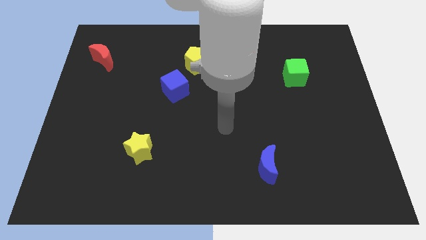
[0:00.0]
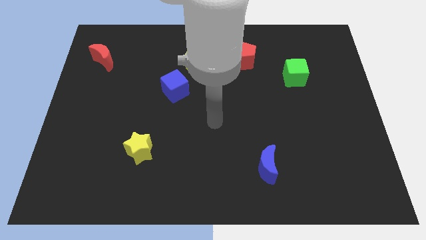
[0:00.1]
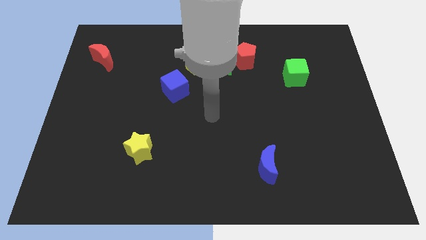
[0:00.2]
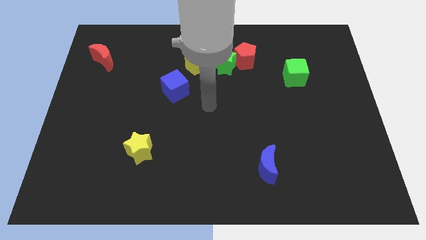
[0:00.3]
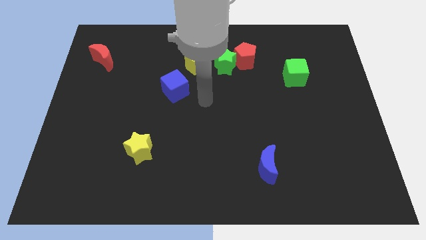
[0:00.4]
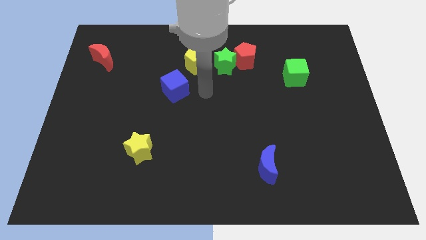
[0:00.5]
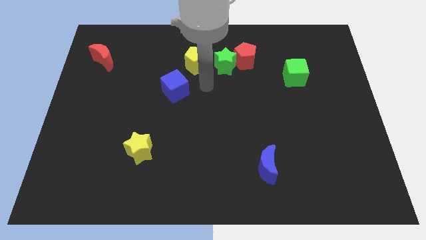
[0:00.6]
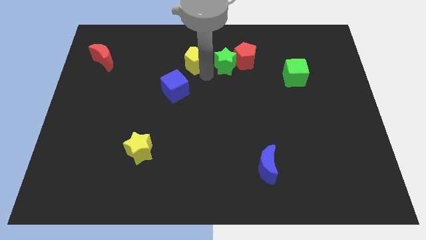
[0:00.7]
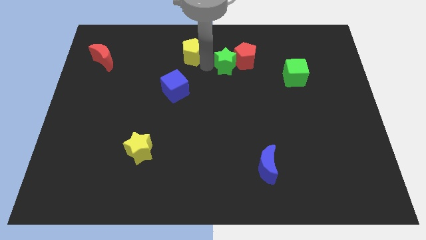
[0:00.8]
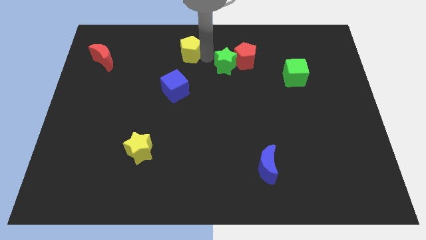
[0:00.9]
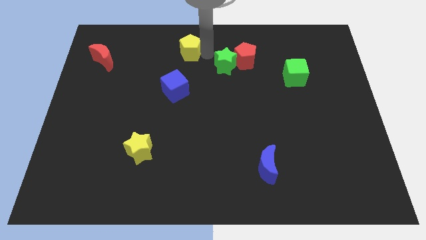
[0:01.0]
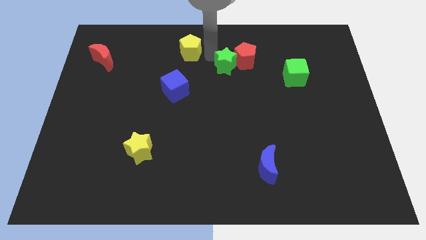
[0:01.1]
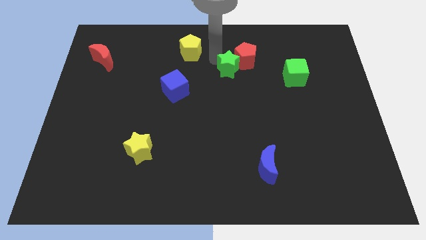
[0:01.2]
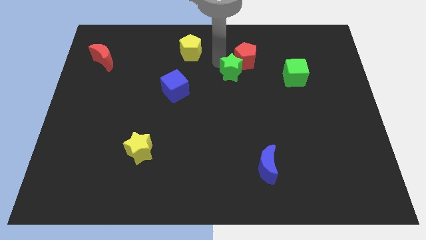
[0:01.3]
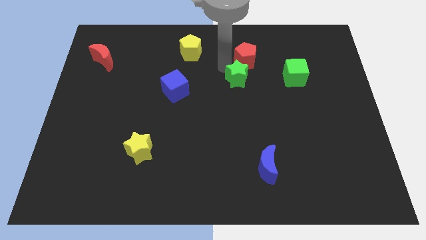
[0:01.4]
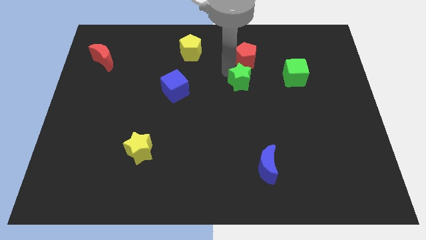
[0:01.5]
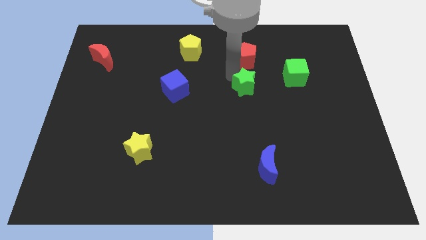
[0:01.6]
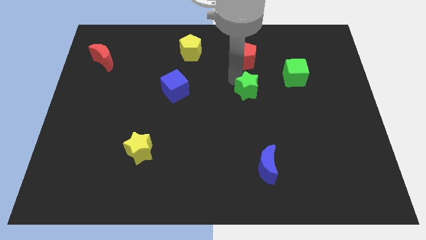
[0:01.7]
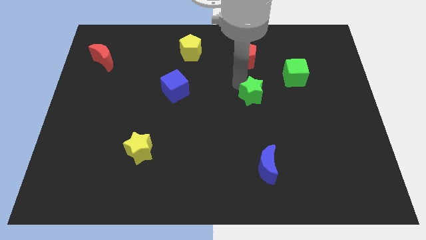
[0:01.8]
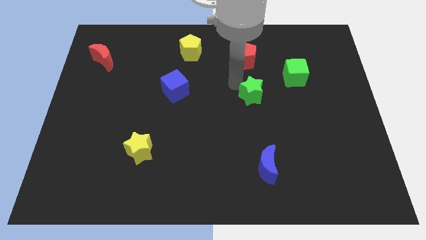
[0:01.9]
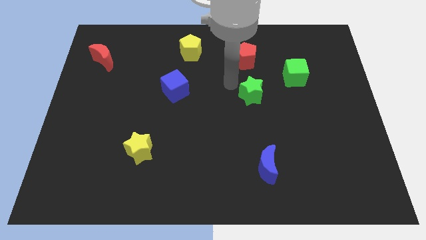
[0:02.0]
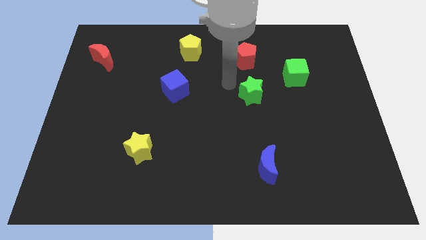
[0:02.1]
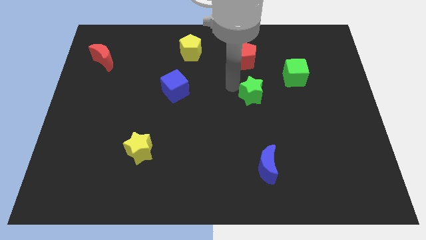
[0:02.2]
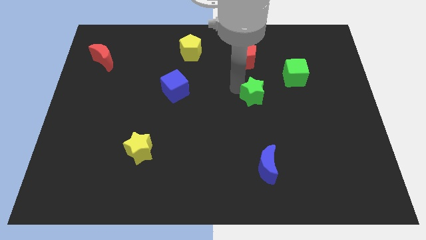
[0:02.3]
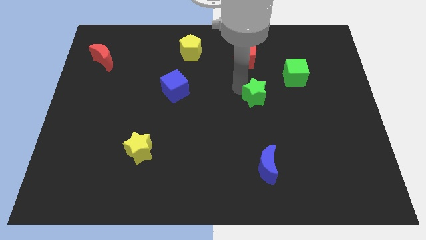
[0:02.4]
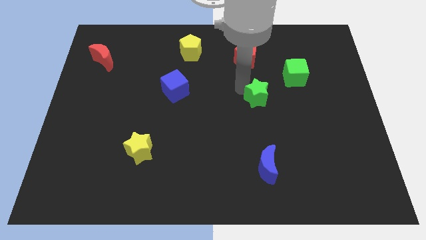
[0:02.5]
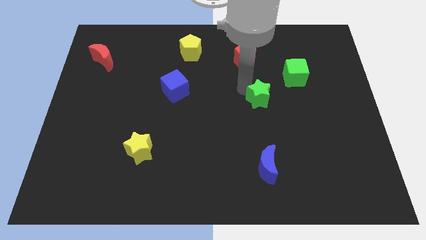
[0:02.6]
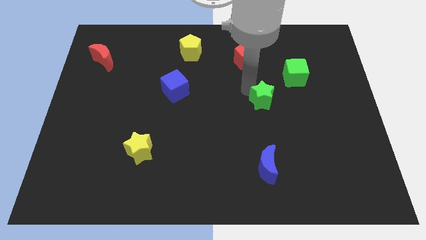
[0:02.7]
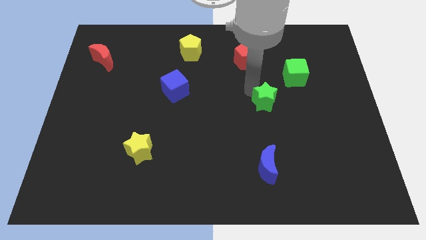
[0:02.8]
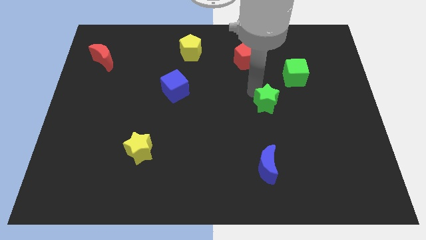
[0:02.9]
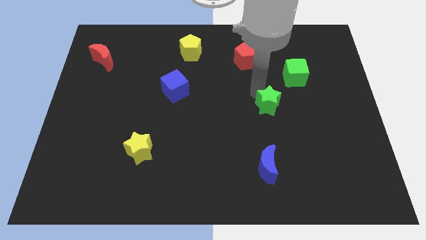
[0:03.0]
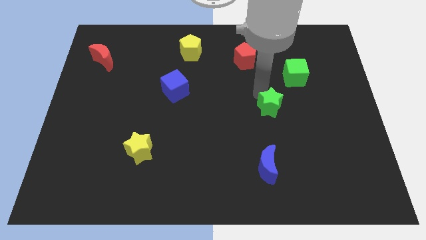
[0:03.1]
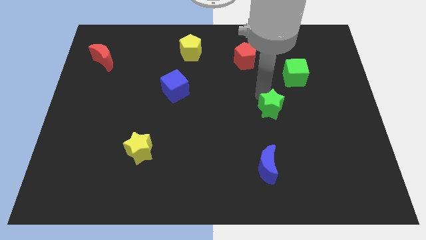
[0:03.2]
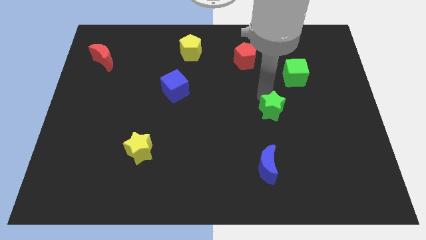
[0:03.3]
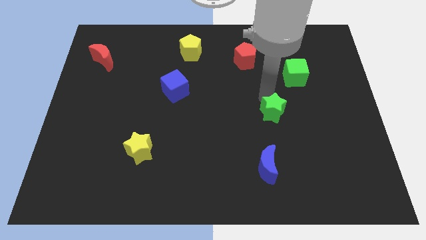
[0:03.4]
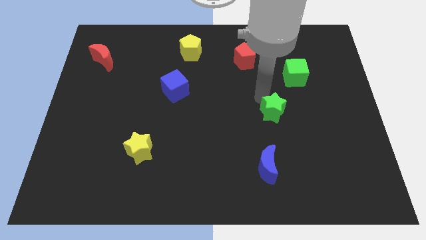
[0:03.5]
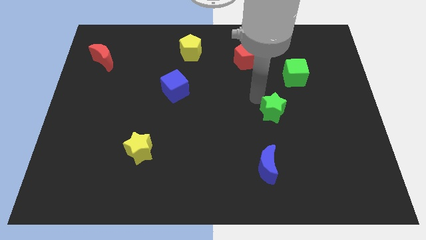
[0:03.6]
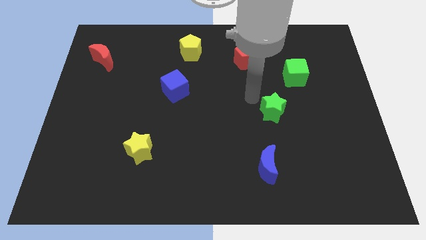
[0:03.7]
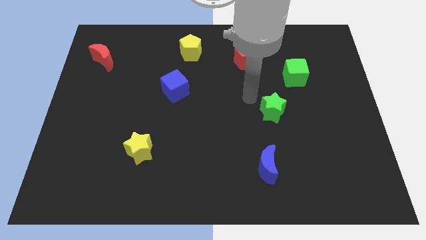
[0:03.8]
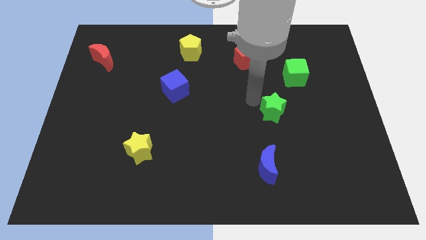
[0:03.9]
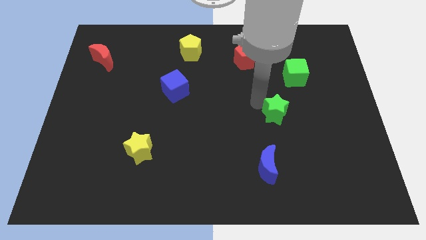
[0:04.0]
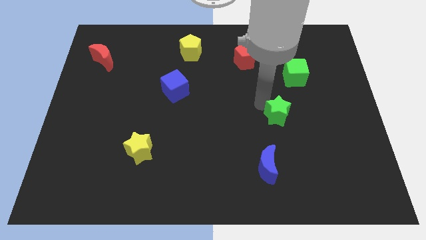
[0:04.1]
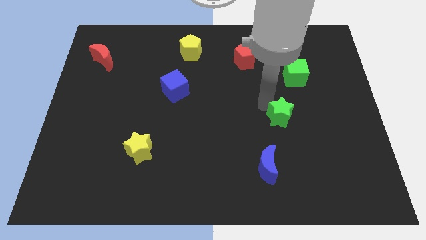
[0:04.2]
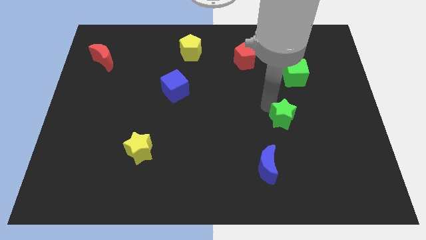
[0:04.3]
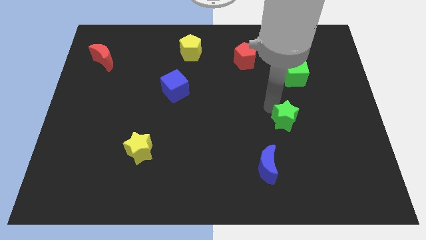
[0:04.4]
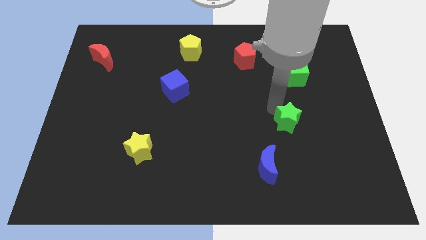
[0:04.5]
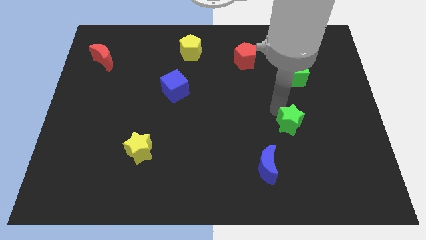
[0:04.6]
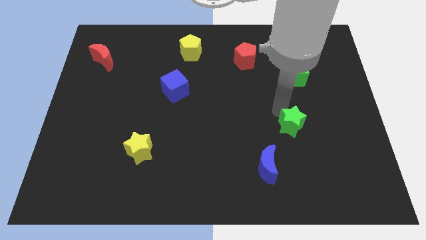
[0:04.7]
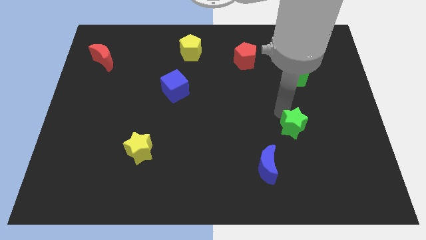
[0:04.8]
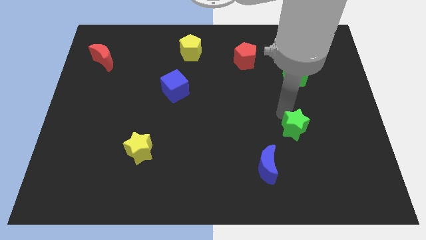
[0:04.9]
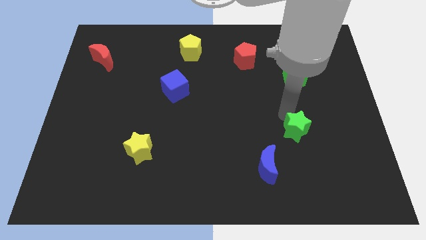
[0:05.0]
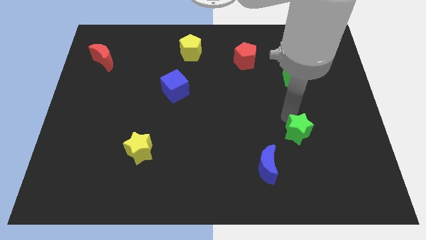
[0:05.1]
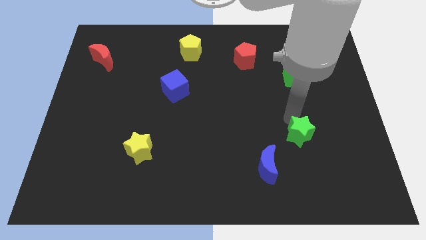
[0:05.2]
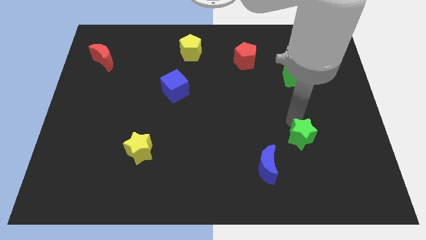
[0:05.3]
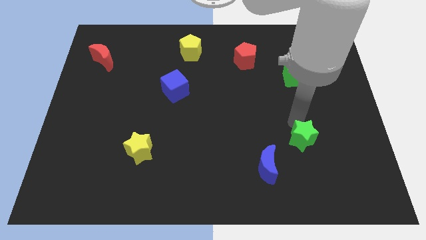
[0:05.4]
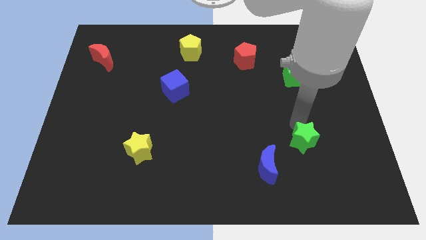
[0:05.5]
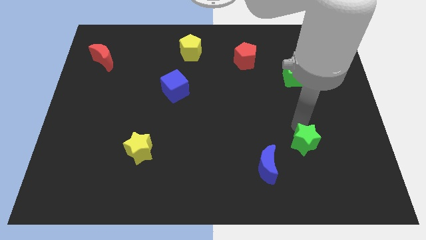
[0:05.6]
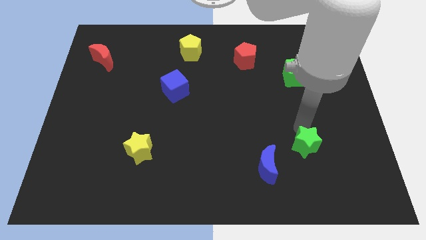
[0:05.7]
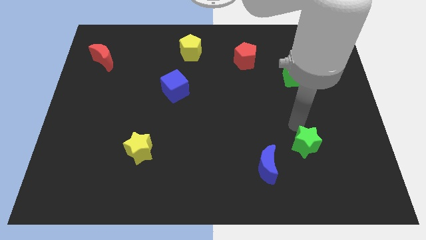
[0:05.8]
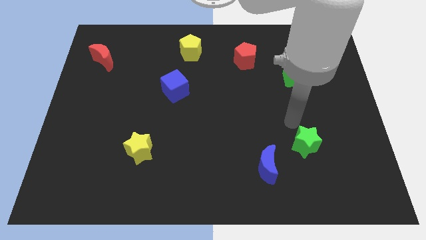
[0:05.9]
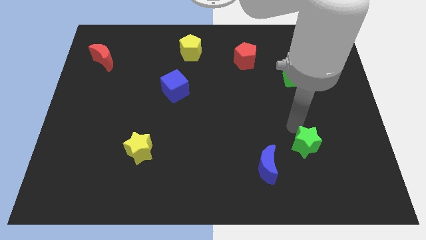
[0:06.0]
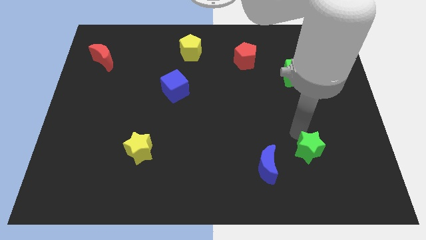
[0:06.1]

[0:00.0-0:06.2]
move the green star just right of the blue moon

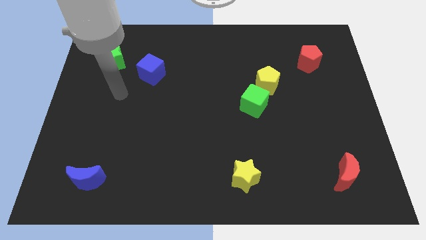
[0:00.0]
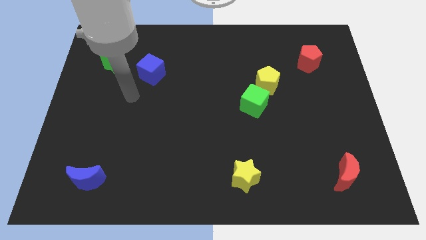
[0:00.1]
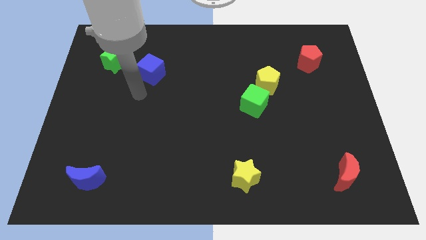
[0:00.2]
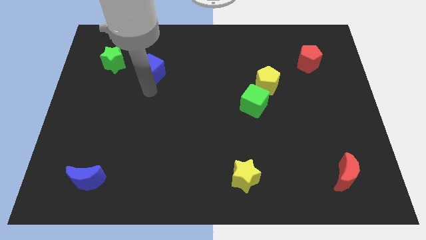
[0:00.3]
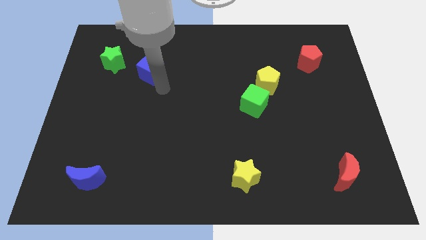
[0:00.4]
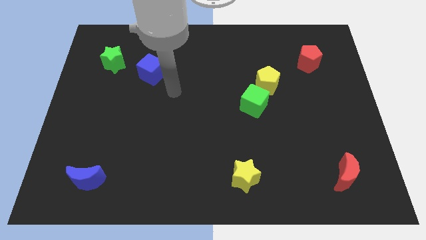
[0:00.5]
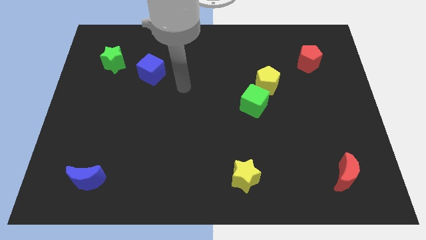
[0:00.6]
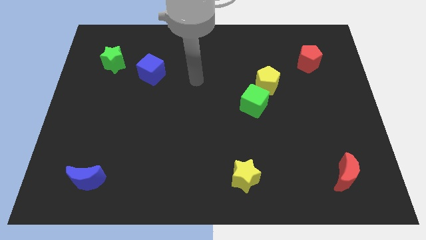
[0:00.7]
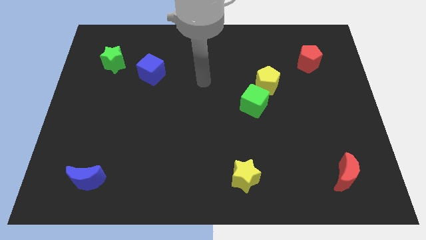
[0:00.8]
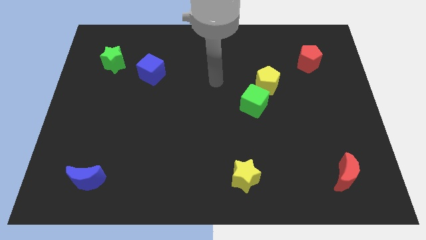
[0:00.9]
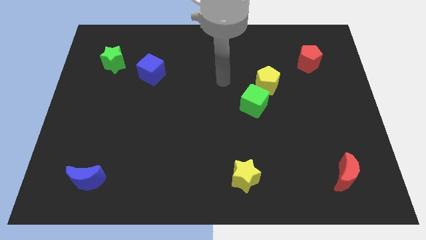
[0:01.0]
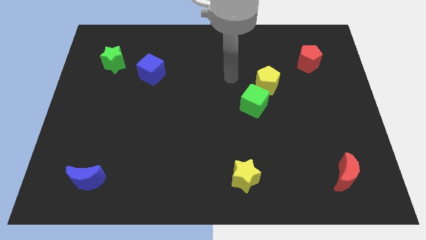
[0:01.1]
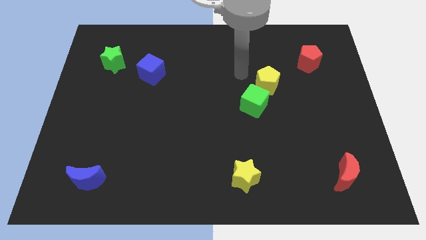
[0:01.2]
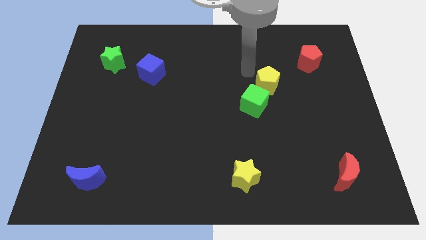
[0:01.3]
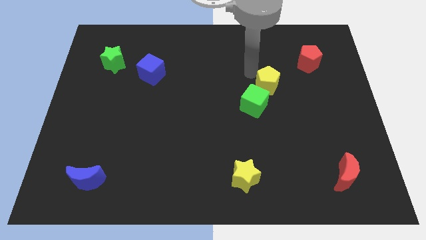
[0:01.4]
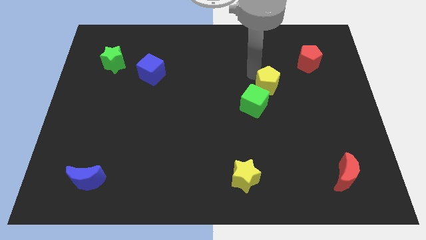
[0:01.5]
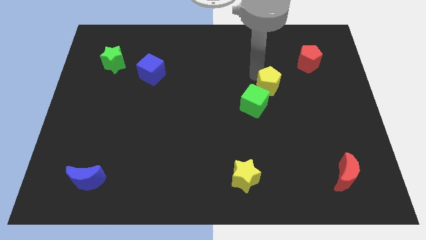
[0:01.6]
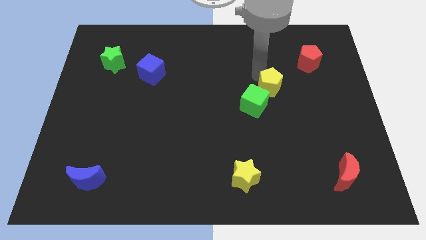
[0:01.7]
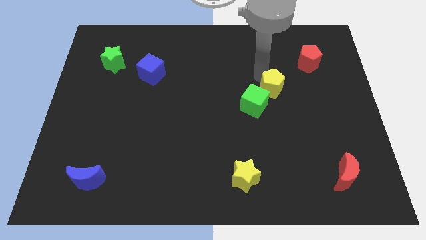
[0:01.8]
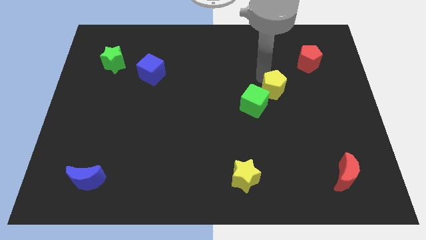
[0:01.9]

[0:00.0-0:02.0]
put the yellow pentagon right of the green cube
